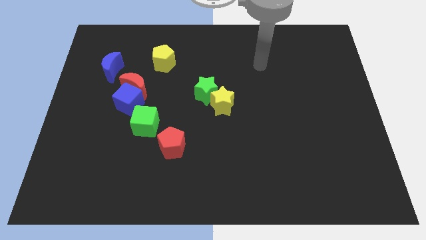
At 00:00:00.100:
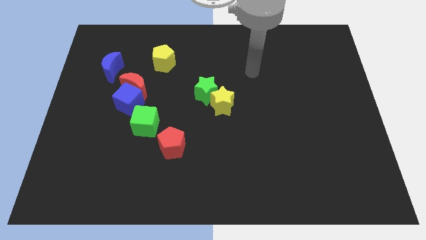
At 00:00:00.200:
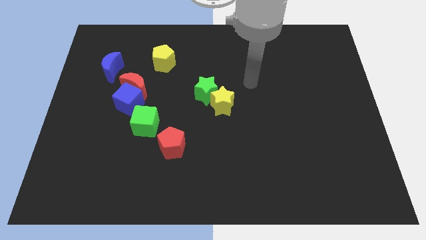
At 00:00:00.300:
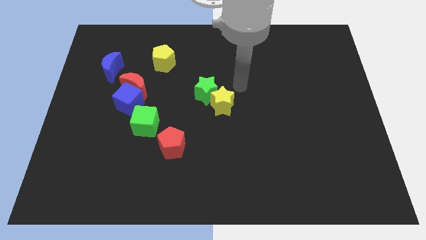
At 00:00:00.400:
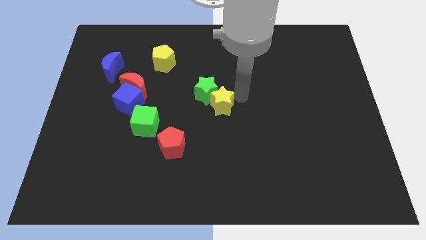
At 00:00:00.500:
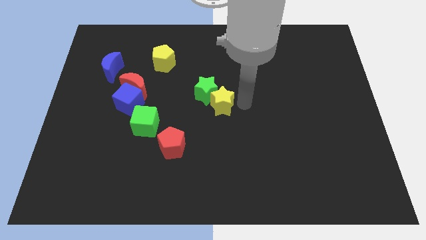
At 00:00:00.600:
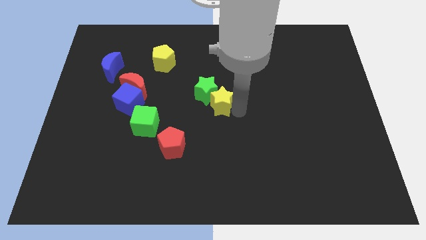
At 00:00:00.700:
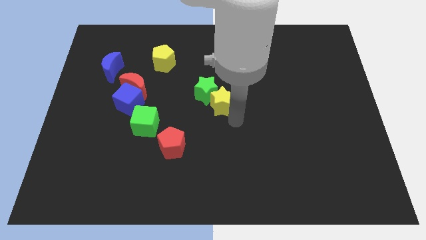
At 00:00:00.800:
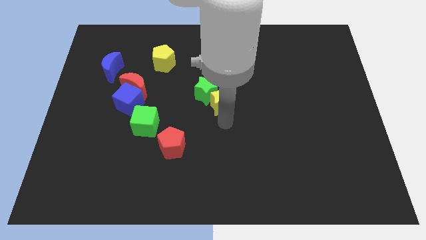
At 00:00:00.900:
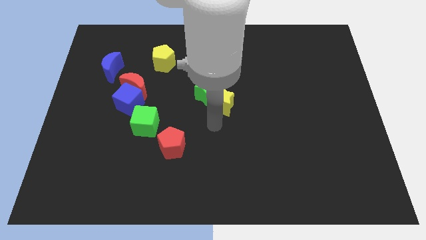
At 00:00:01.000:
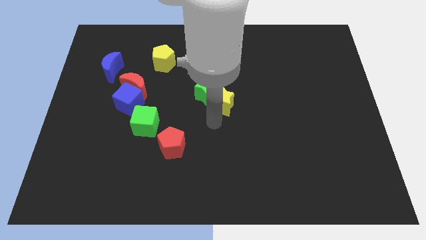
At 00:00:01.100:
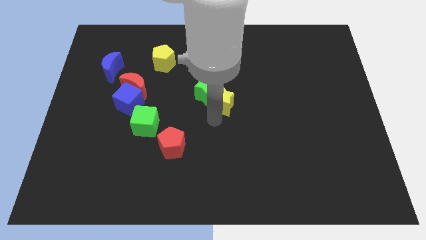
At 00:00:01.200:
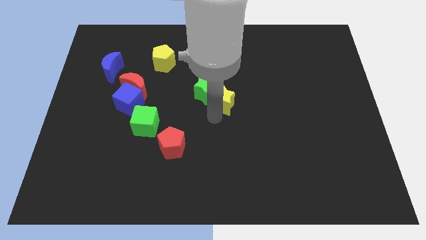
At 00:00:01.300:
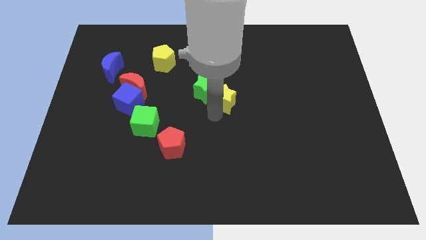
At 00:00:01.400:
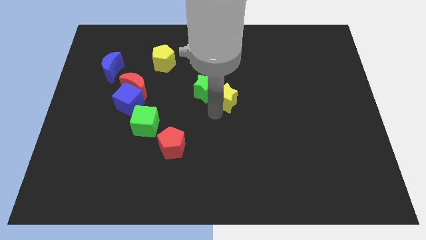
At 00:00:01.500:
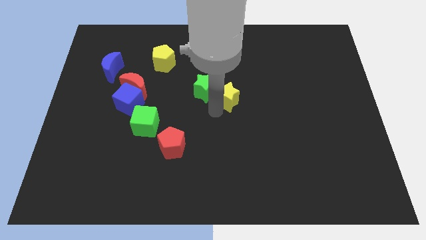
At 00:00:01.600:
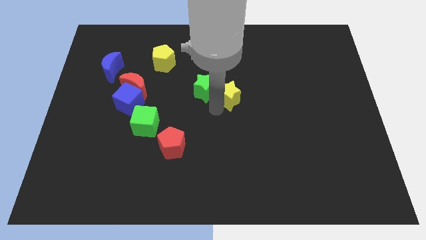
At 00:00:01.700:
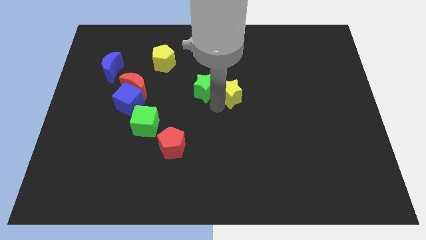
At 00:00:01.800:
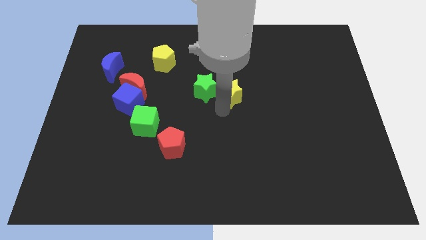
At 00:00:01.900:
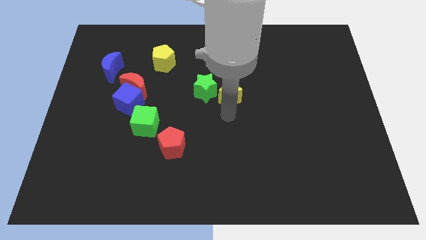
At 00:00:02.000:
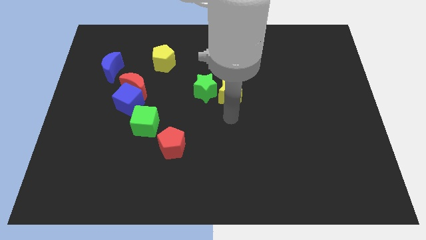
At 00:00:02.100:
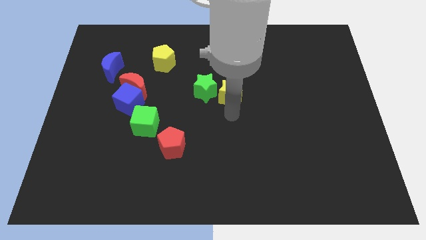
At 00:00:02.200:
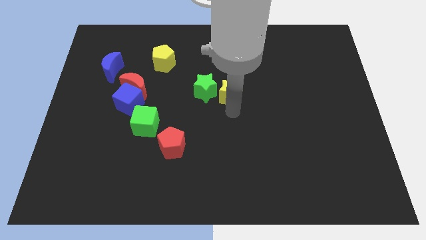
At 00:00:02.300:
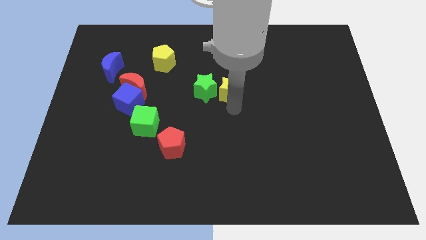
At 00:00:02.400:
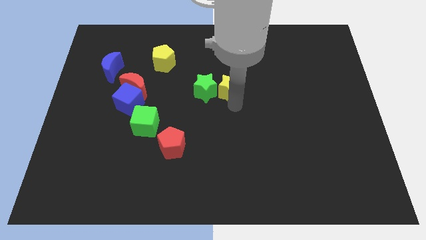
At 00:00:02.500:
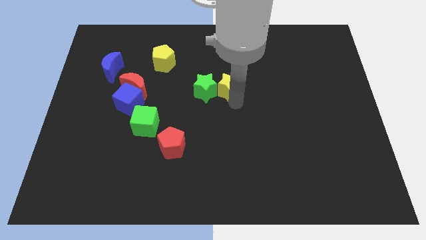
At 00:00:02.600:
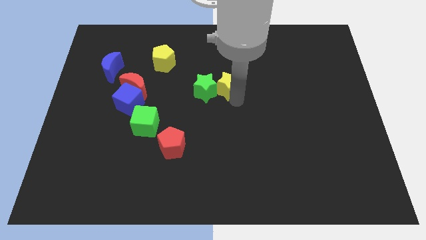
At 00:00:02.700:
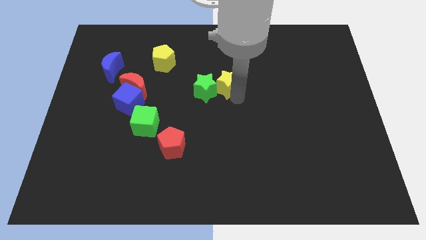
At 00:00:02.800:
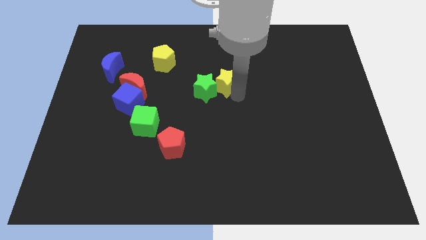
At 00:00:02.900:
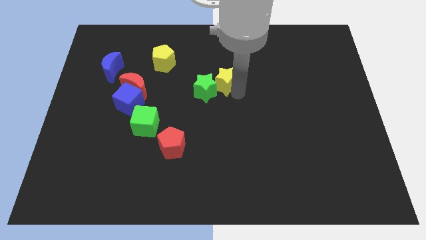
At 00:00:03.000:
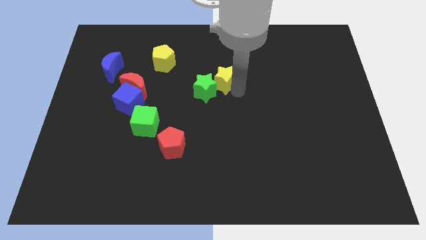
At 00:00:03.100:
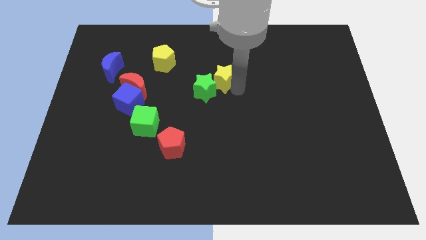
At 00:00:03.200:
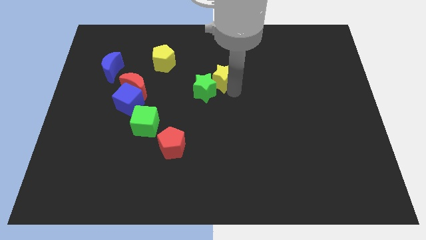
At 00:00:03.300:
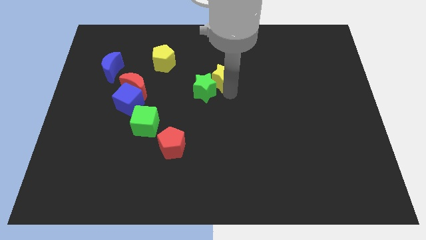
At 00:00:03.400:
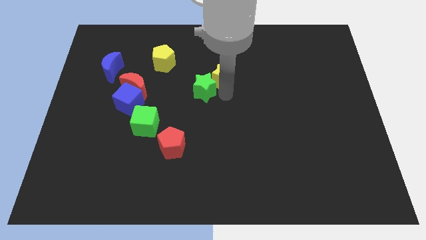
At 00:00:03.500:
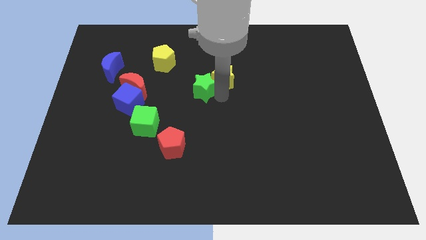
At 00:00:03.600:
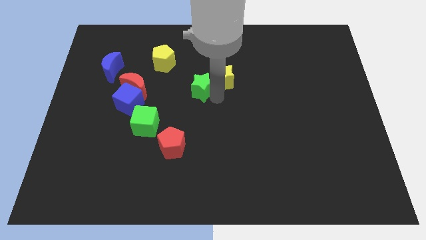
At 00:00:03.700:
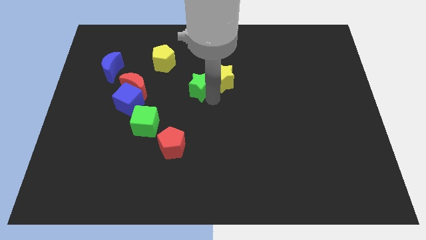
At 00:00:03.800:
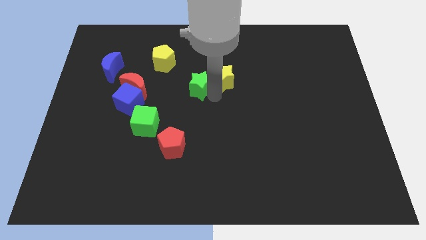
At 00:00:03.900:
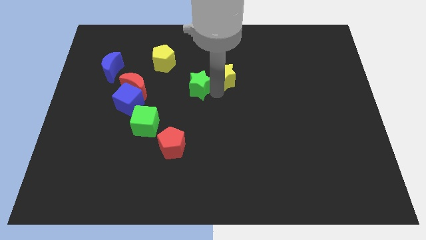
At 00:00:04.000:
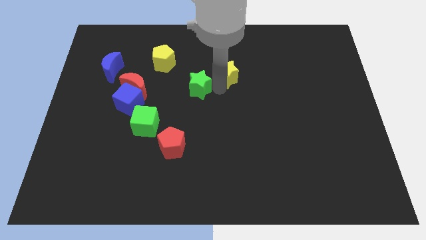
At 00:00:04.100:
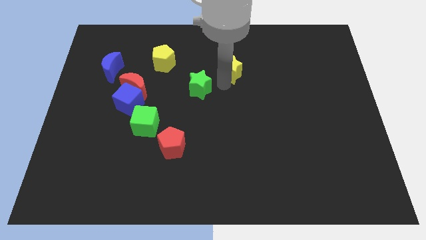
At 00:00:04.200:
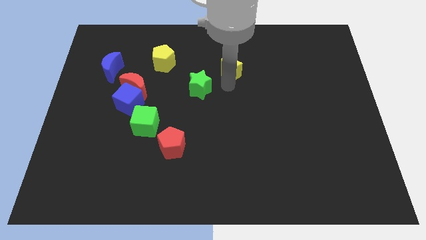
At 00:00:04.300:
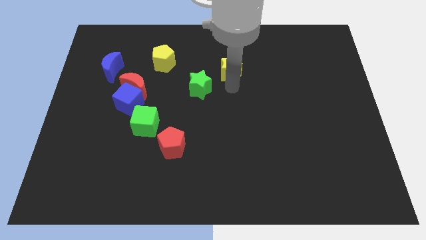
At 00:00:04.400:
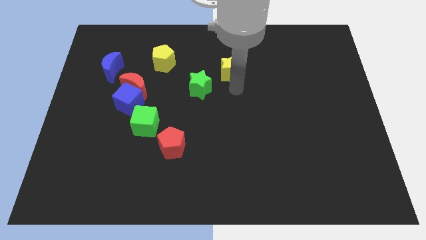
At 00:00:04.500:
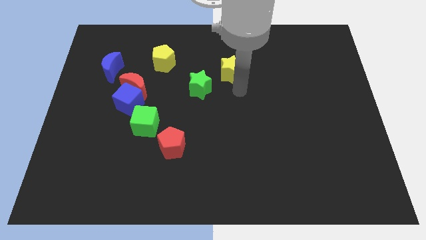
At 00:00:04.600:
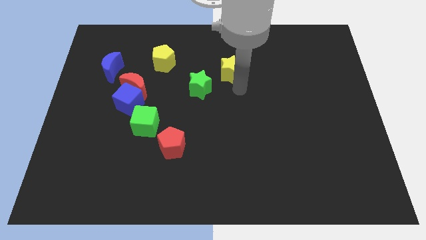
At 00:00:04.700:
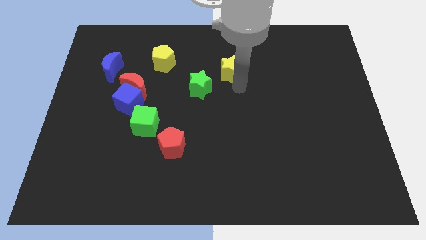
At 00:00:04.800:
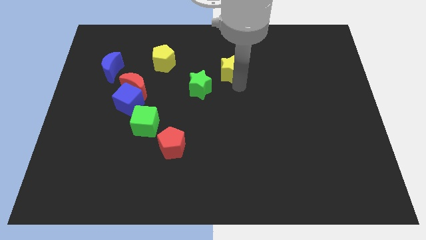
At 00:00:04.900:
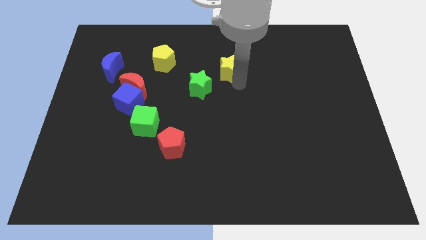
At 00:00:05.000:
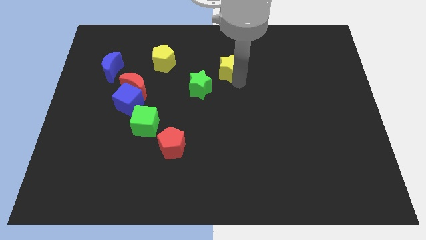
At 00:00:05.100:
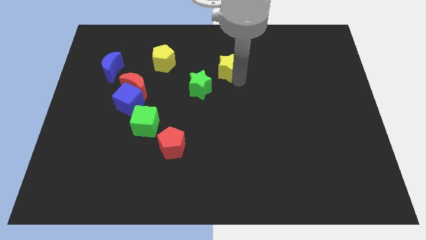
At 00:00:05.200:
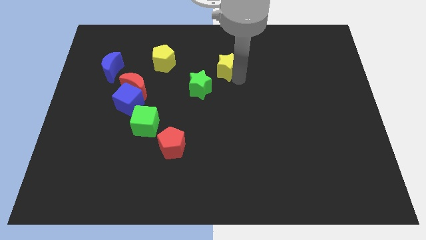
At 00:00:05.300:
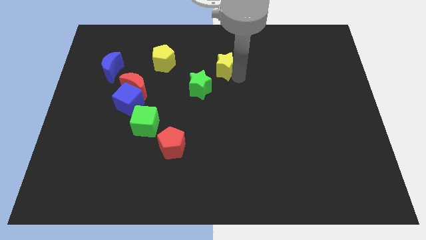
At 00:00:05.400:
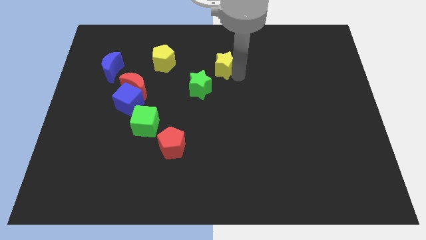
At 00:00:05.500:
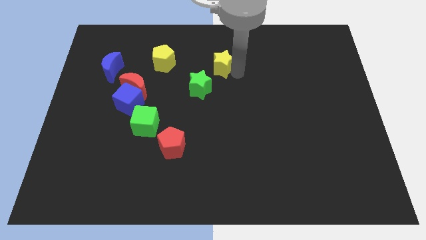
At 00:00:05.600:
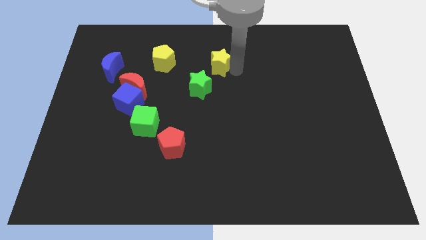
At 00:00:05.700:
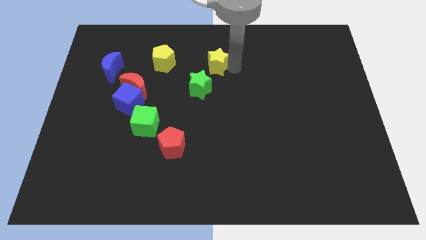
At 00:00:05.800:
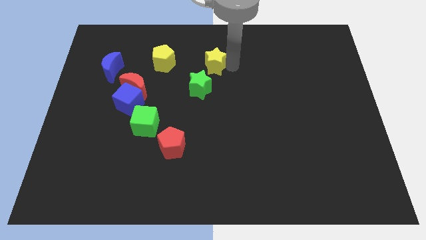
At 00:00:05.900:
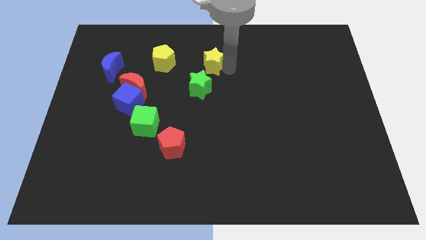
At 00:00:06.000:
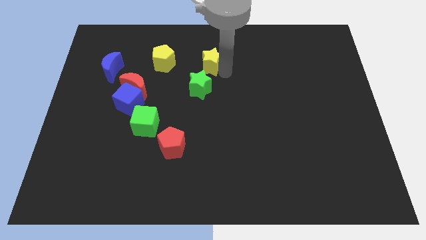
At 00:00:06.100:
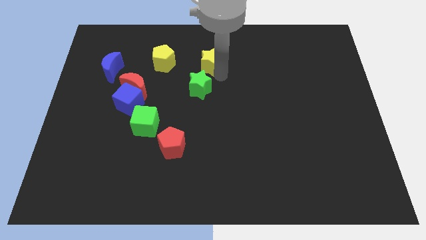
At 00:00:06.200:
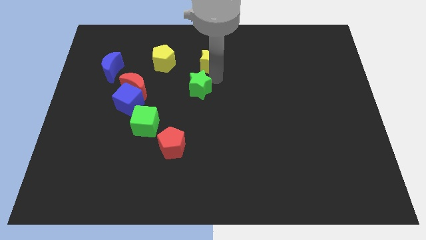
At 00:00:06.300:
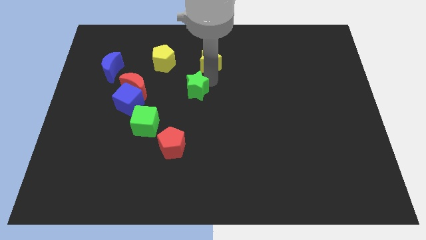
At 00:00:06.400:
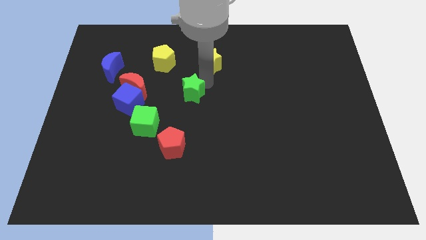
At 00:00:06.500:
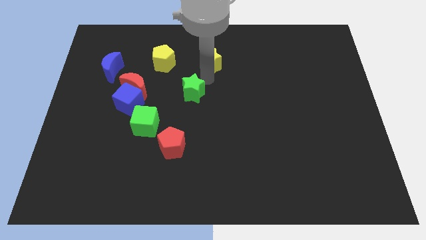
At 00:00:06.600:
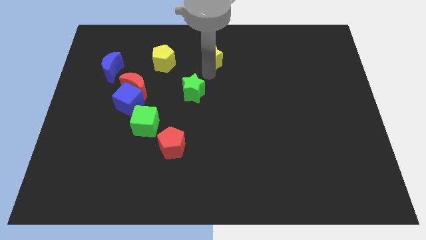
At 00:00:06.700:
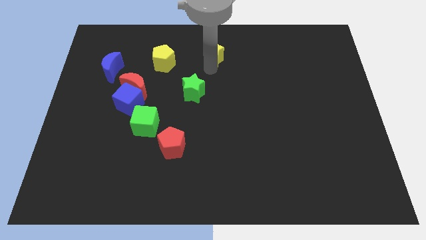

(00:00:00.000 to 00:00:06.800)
slide the yellow star to the towards your base
